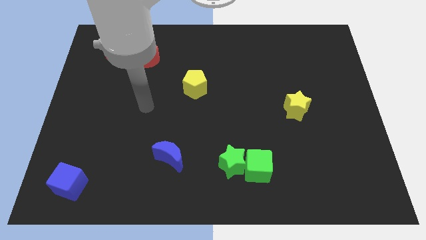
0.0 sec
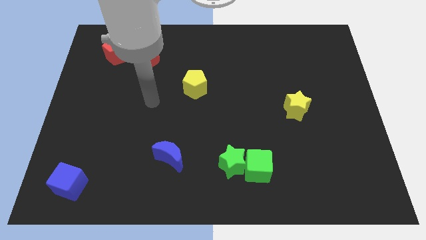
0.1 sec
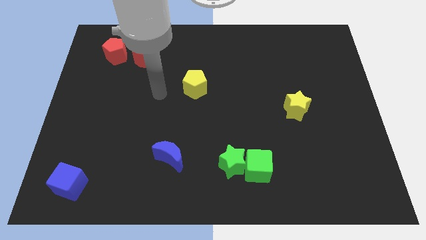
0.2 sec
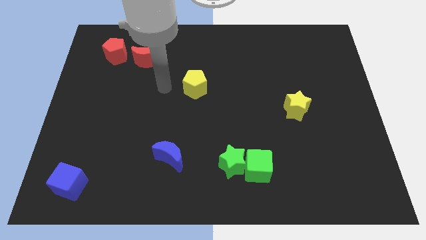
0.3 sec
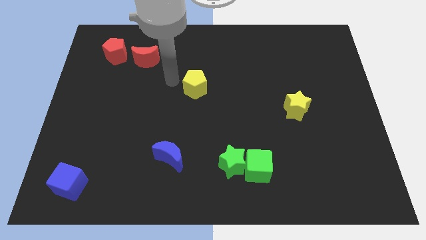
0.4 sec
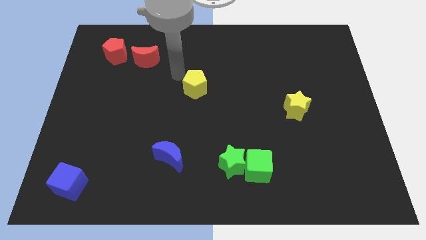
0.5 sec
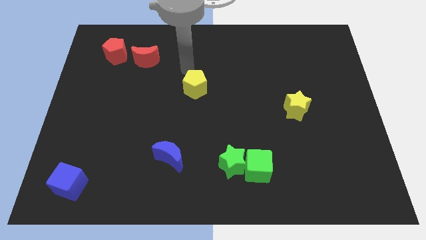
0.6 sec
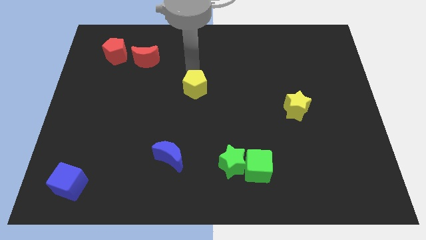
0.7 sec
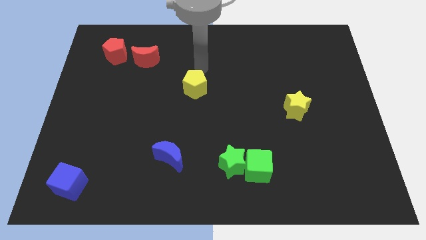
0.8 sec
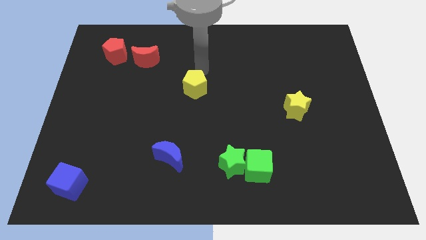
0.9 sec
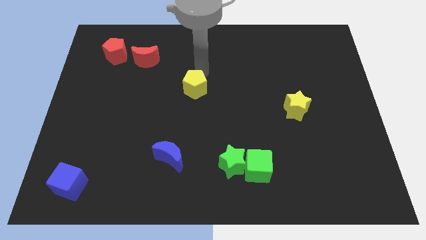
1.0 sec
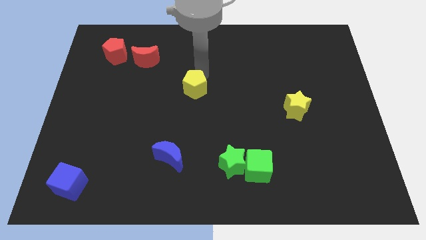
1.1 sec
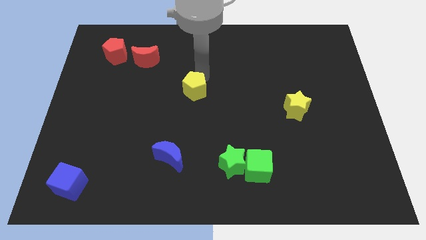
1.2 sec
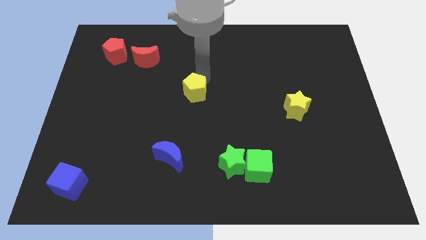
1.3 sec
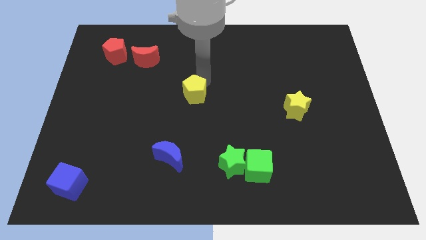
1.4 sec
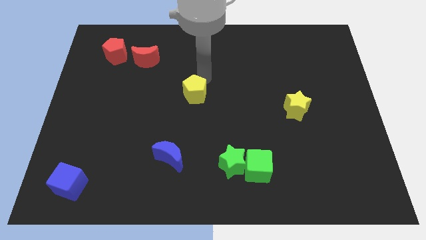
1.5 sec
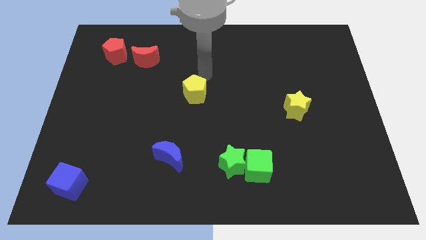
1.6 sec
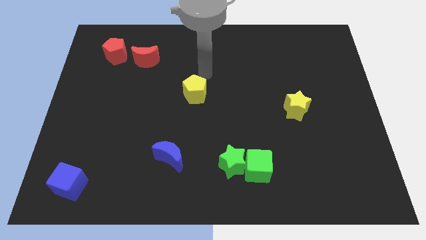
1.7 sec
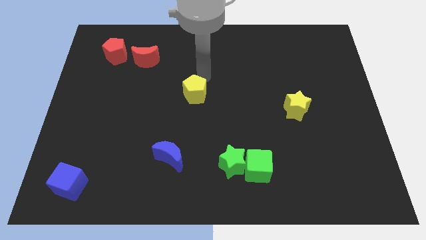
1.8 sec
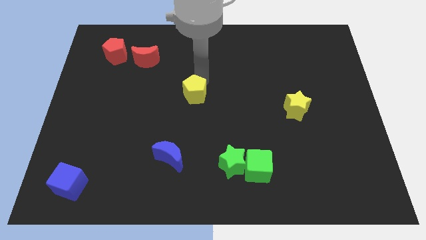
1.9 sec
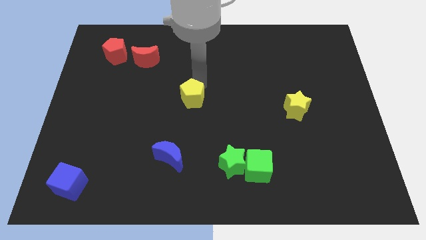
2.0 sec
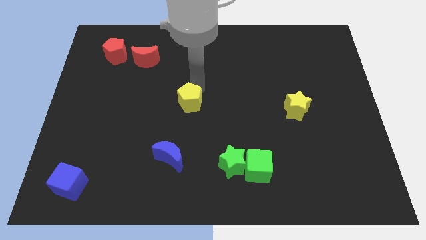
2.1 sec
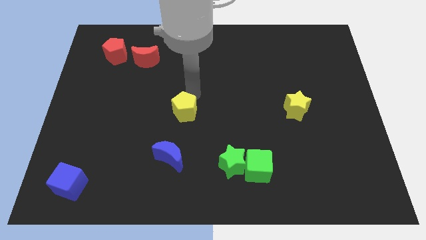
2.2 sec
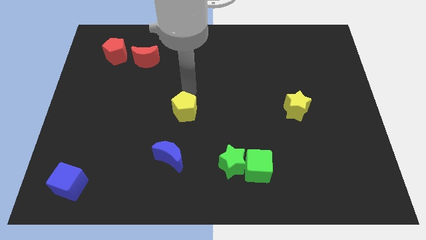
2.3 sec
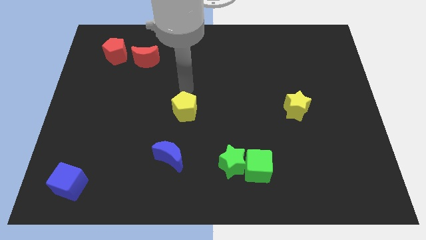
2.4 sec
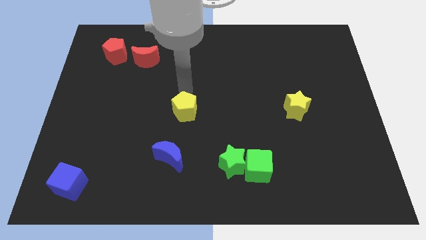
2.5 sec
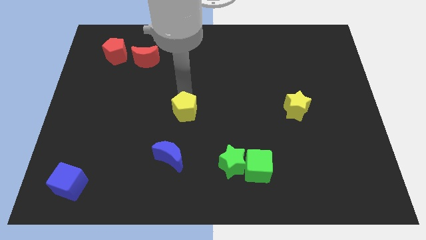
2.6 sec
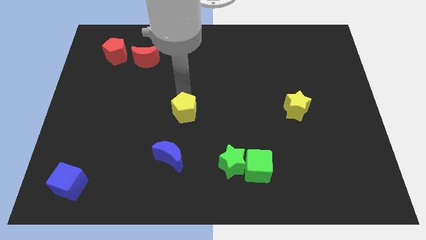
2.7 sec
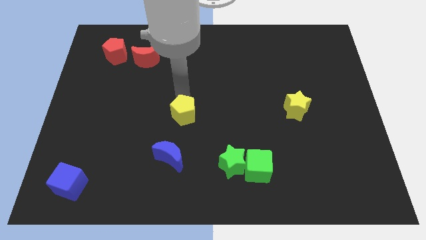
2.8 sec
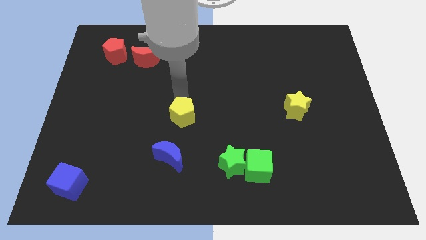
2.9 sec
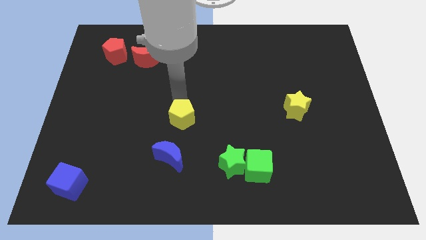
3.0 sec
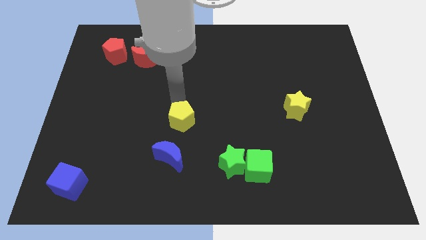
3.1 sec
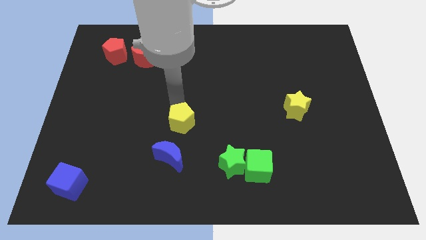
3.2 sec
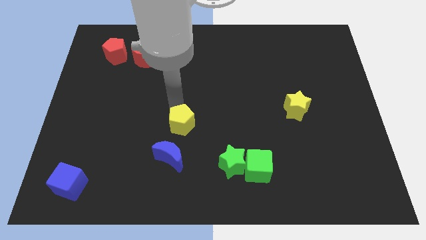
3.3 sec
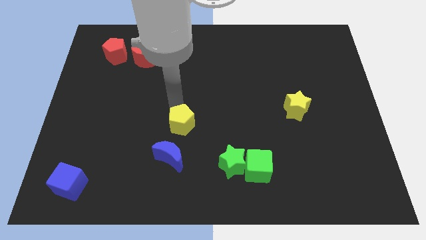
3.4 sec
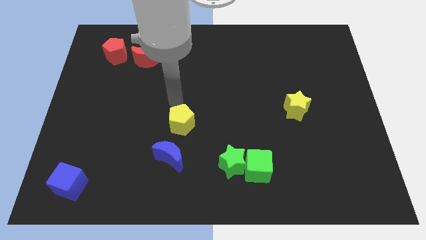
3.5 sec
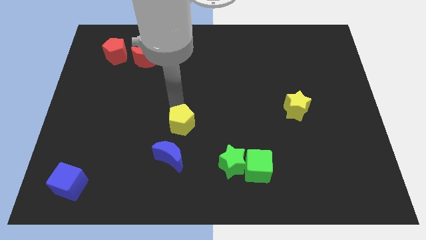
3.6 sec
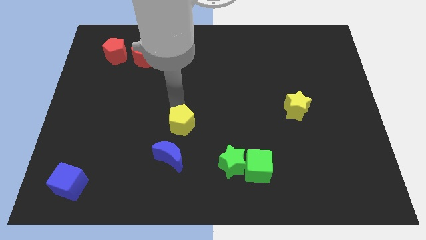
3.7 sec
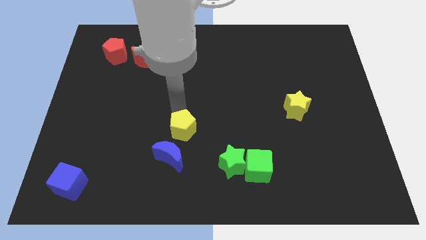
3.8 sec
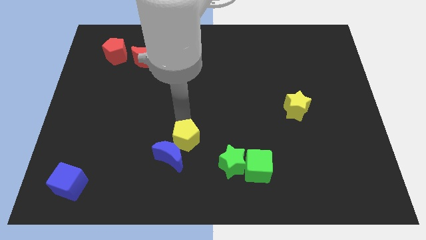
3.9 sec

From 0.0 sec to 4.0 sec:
slide the yellow pentagon close to the blue moon

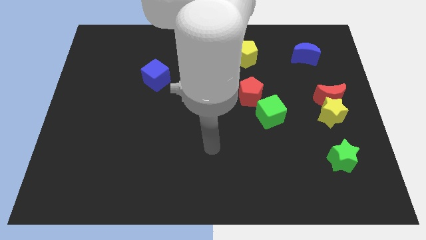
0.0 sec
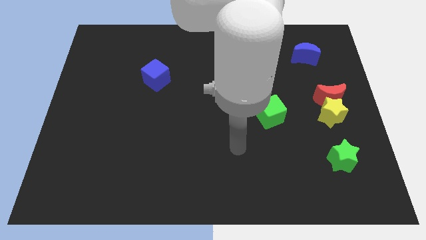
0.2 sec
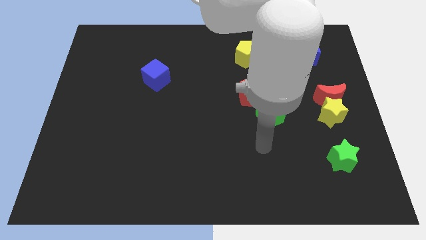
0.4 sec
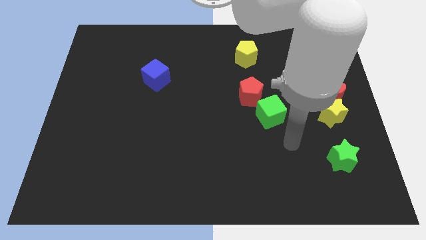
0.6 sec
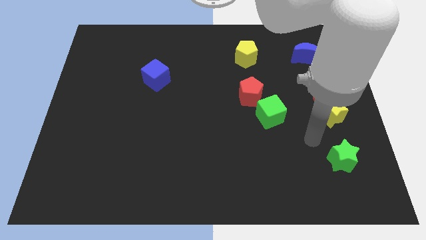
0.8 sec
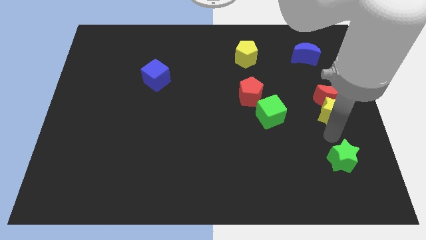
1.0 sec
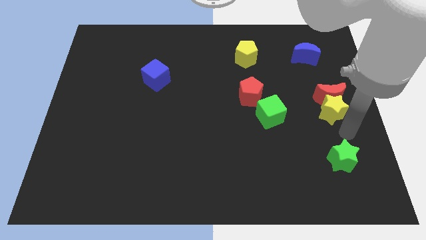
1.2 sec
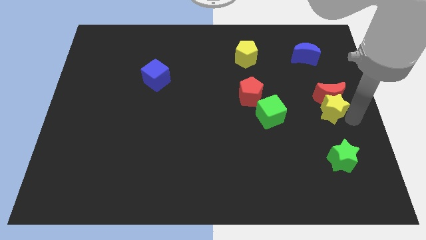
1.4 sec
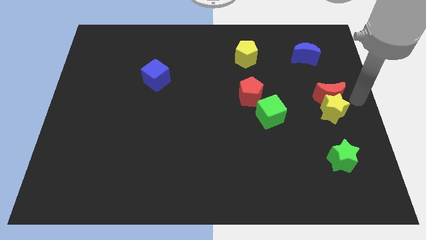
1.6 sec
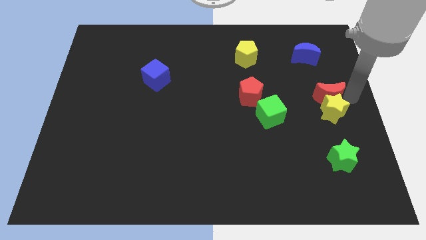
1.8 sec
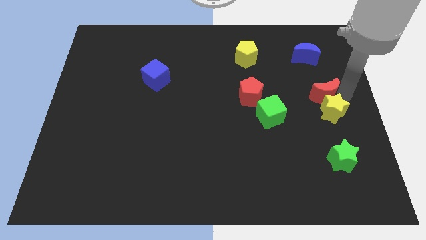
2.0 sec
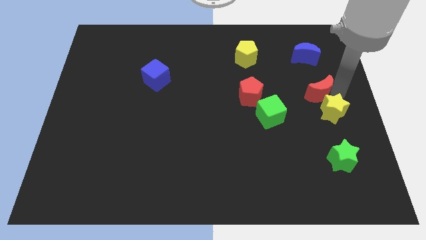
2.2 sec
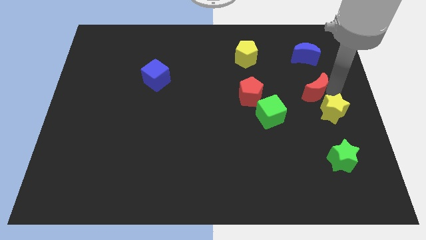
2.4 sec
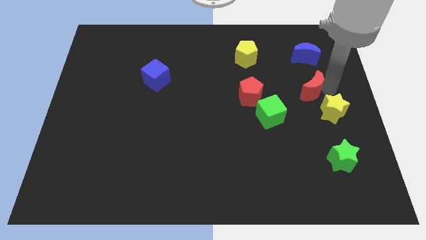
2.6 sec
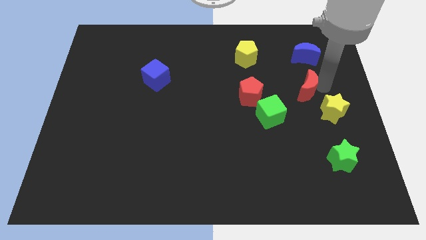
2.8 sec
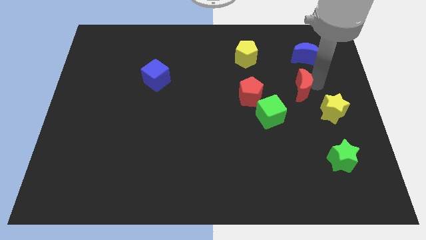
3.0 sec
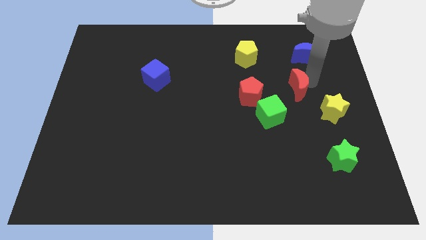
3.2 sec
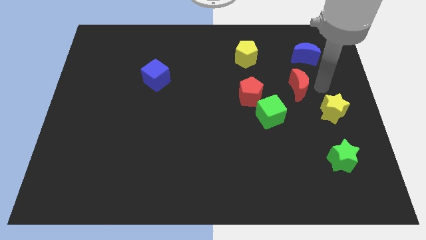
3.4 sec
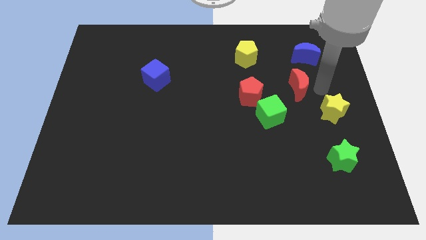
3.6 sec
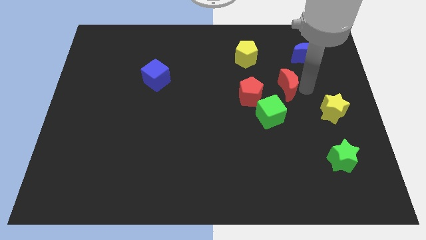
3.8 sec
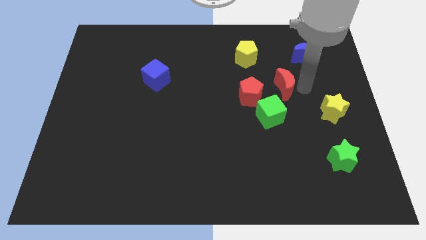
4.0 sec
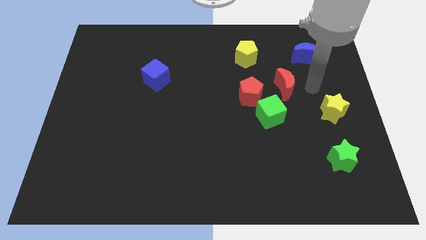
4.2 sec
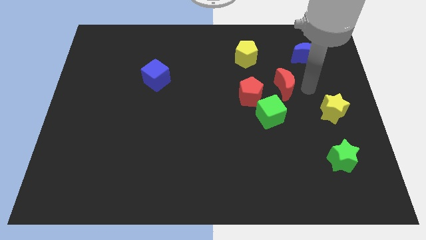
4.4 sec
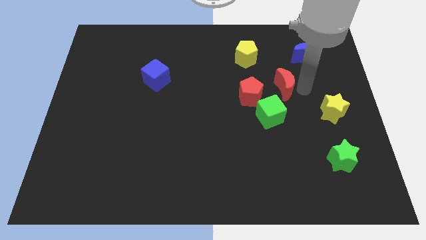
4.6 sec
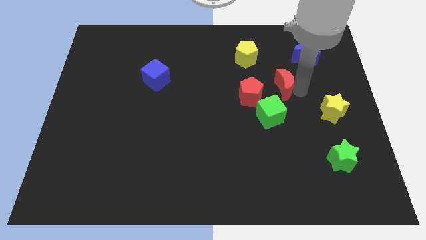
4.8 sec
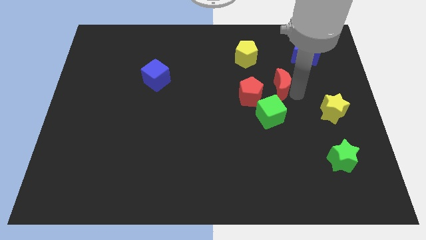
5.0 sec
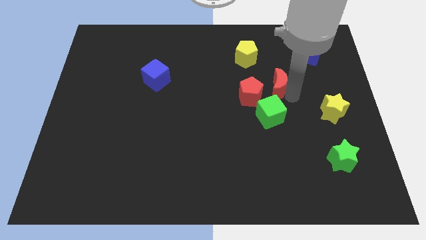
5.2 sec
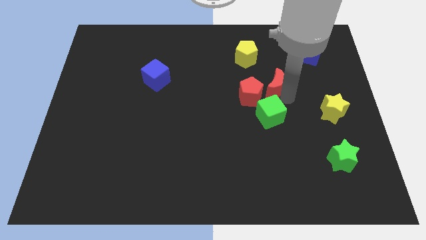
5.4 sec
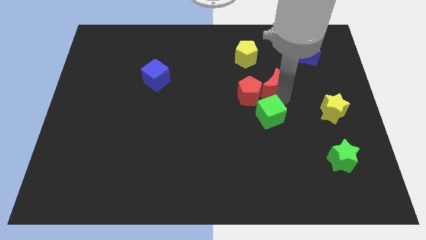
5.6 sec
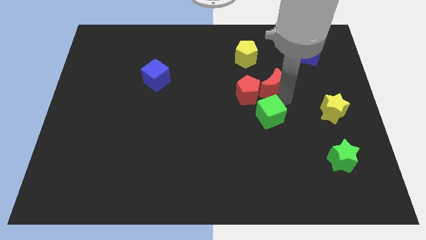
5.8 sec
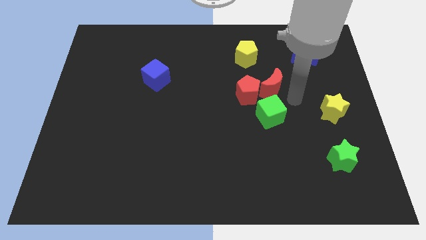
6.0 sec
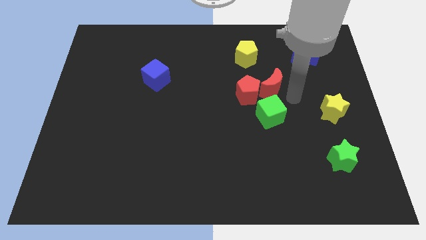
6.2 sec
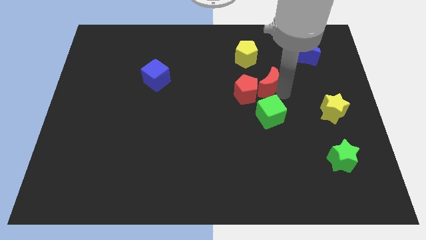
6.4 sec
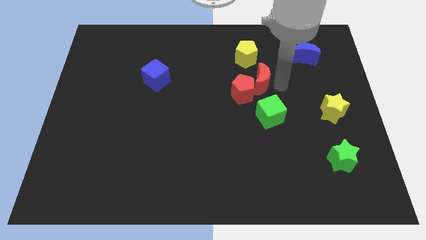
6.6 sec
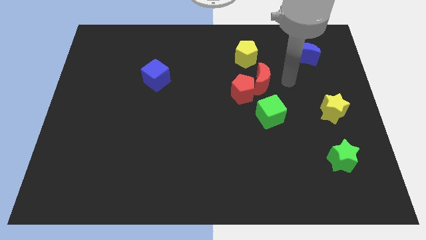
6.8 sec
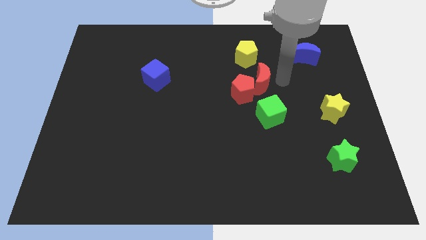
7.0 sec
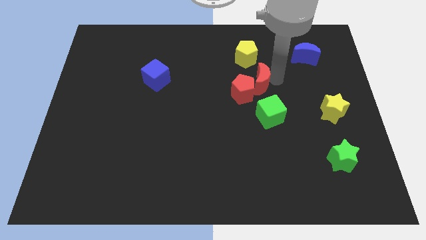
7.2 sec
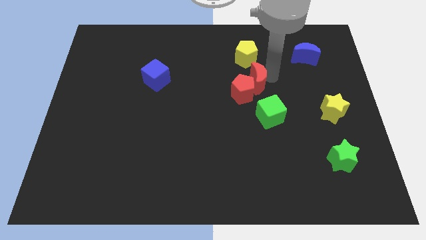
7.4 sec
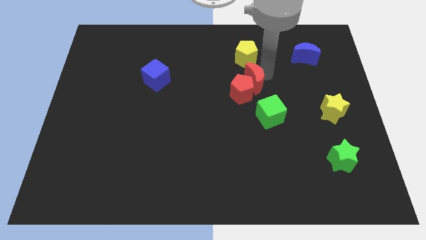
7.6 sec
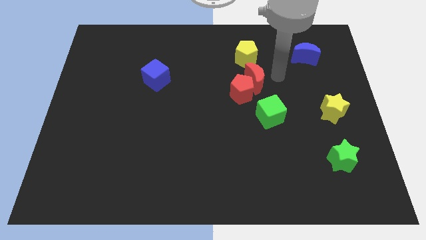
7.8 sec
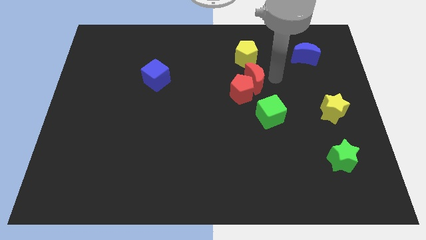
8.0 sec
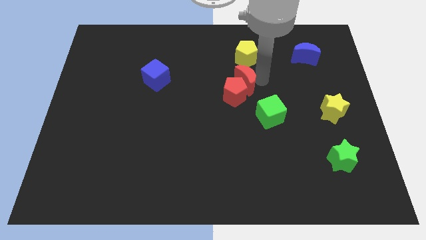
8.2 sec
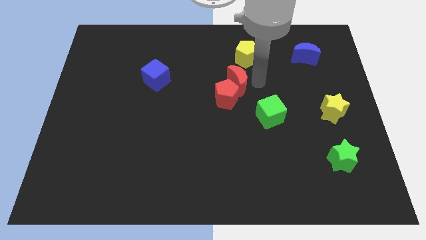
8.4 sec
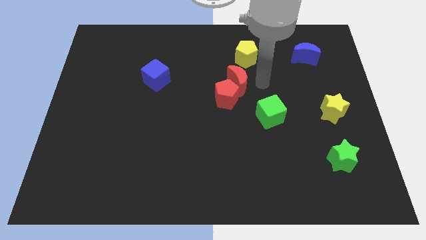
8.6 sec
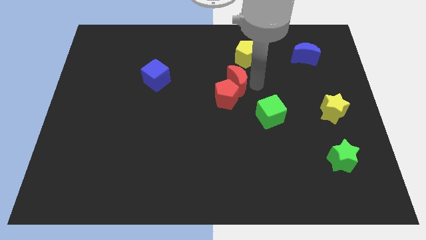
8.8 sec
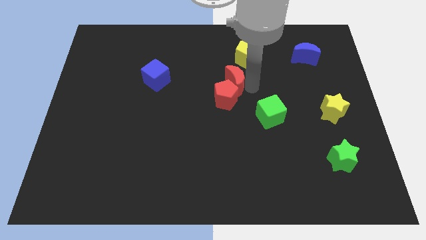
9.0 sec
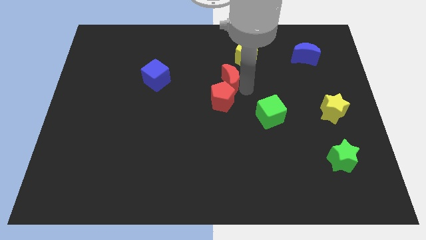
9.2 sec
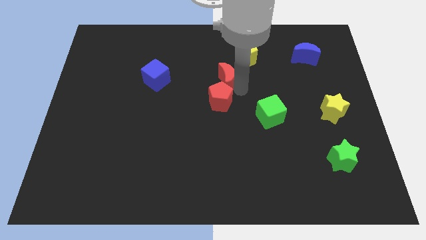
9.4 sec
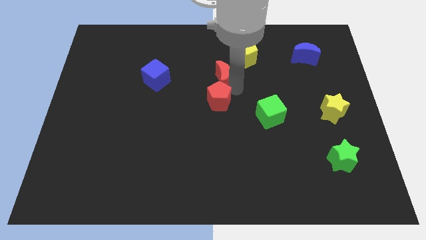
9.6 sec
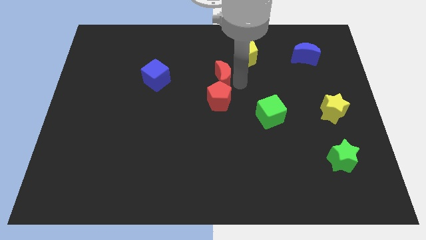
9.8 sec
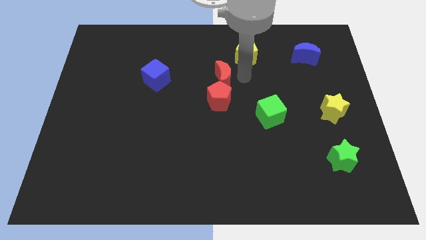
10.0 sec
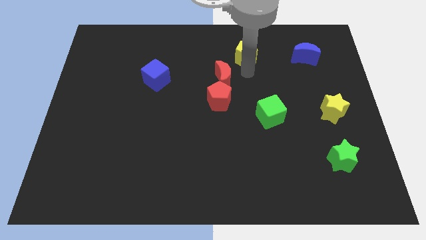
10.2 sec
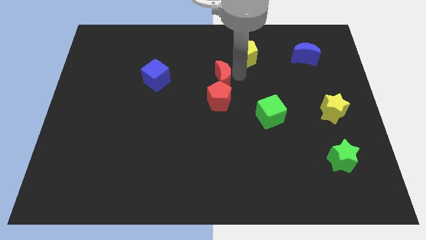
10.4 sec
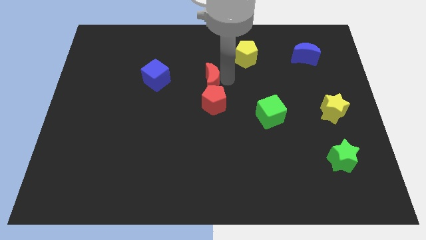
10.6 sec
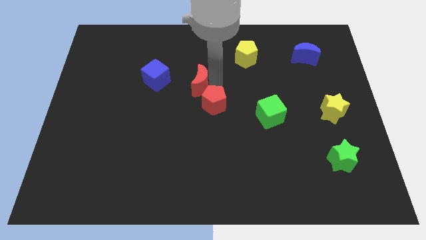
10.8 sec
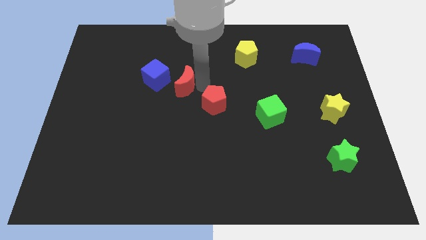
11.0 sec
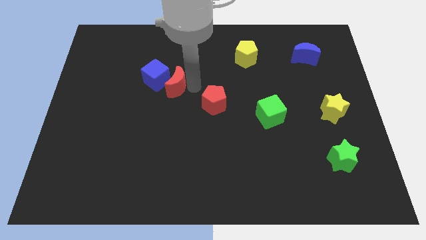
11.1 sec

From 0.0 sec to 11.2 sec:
put the red moon close to the blue cube
